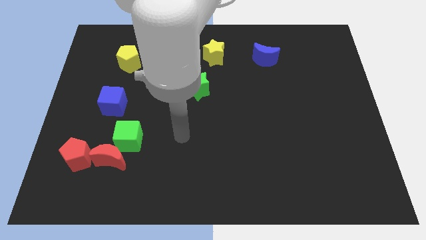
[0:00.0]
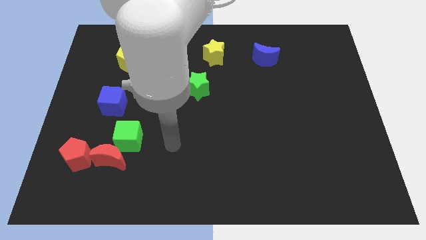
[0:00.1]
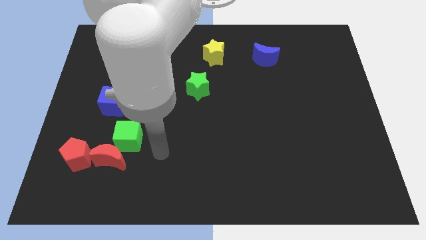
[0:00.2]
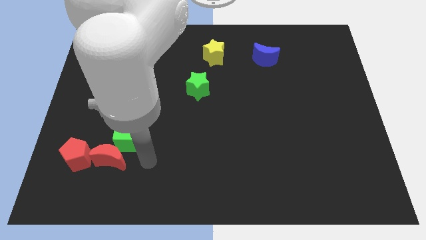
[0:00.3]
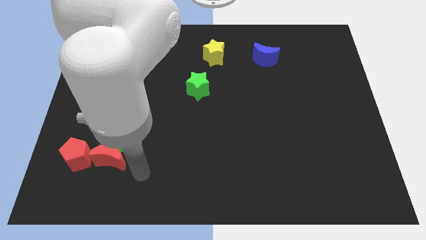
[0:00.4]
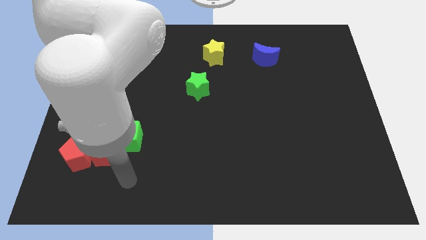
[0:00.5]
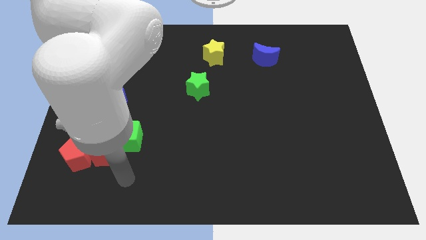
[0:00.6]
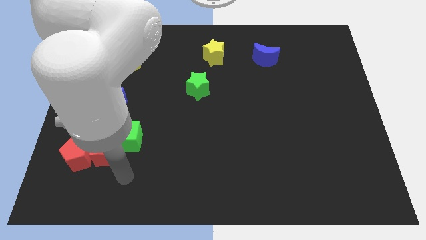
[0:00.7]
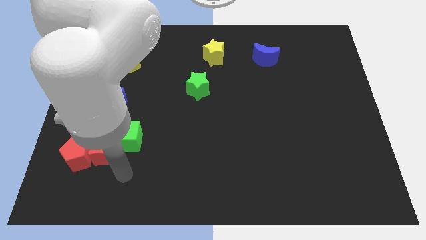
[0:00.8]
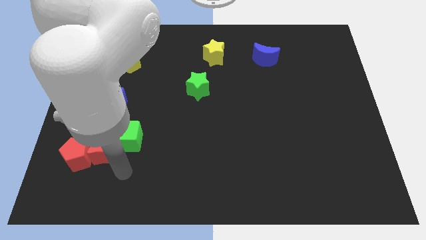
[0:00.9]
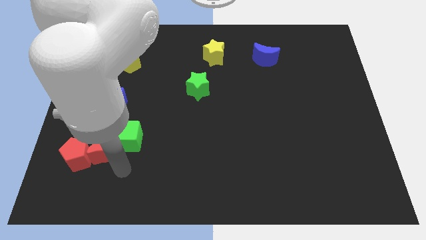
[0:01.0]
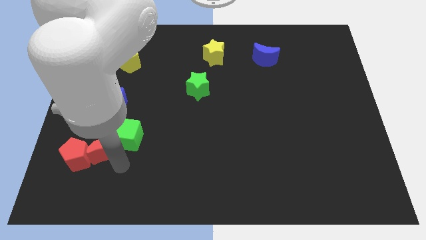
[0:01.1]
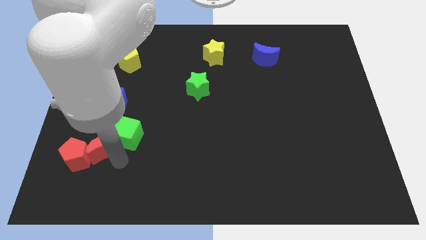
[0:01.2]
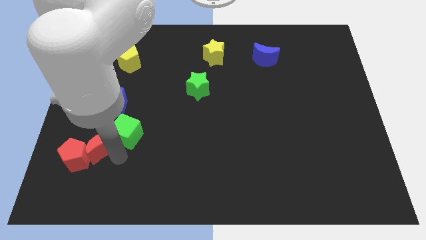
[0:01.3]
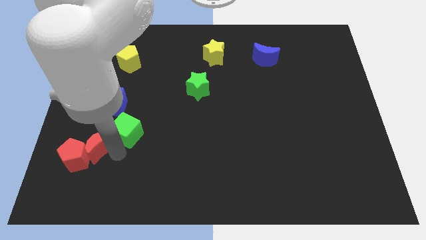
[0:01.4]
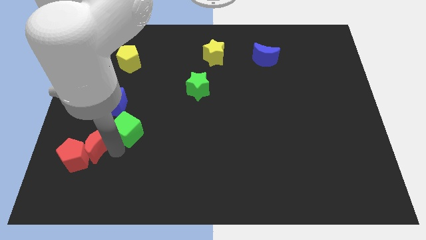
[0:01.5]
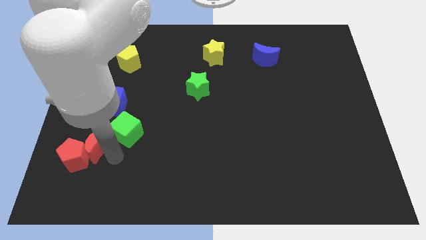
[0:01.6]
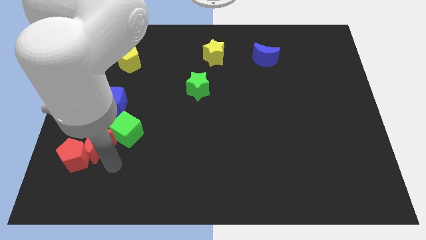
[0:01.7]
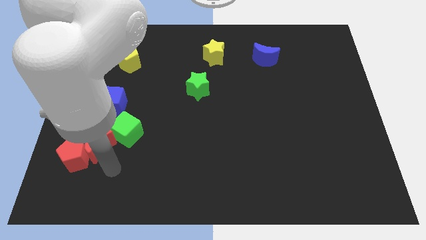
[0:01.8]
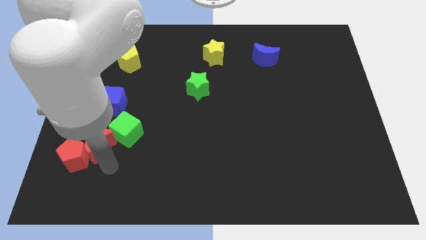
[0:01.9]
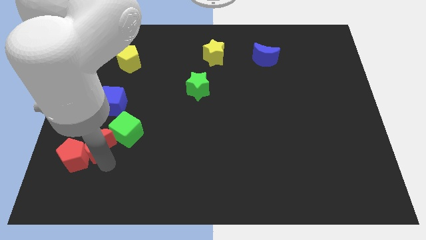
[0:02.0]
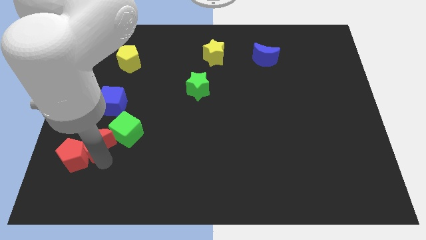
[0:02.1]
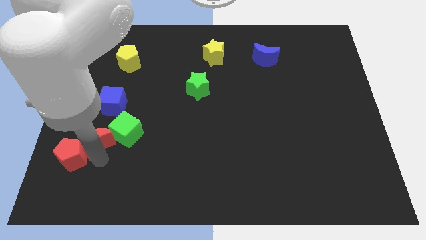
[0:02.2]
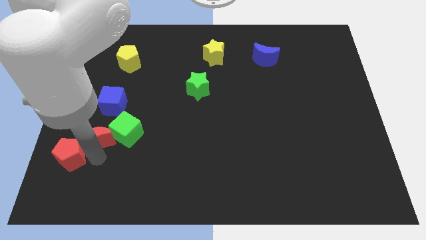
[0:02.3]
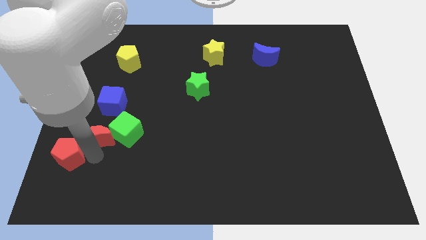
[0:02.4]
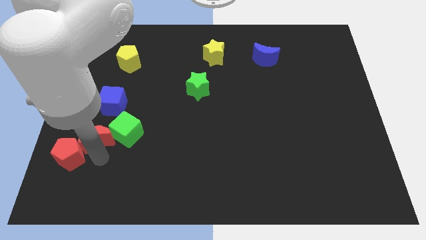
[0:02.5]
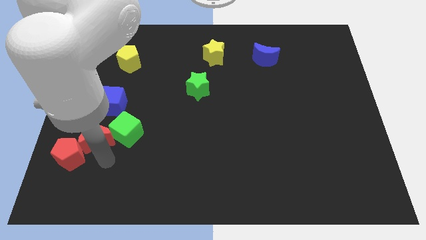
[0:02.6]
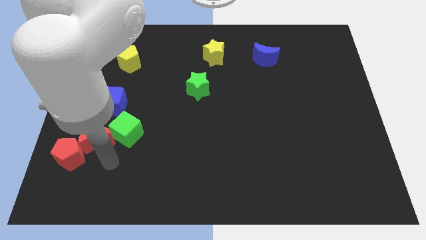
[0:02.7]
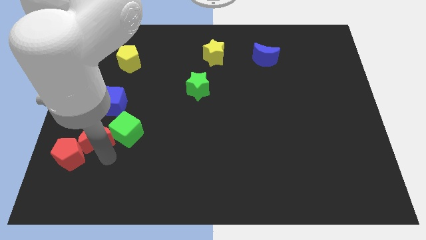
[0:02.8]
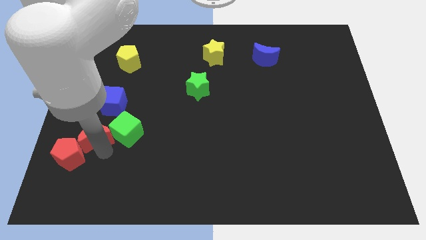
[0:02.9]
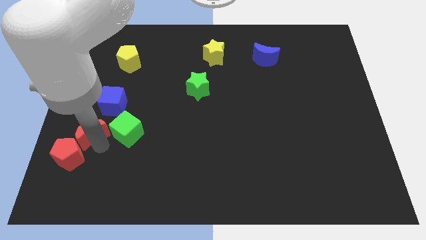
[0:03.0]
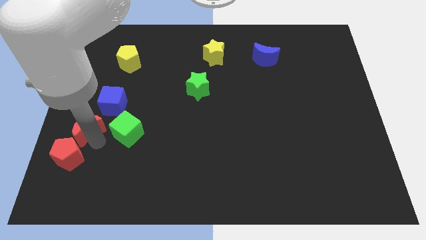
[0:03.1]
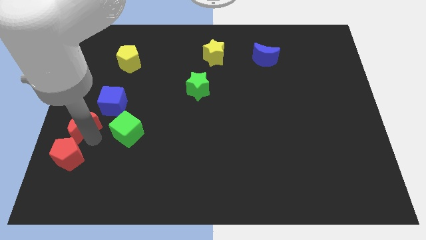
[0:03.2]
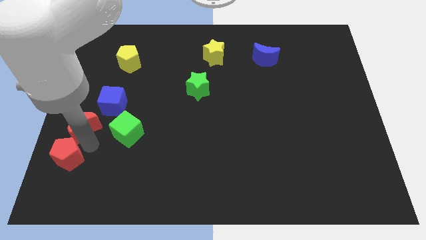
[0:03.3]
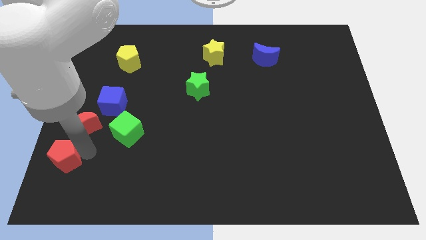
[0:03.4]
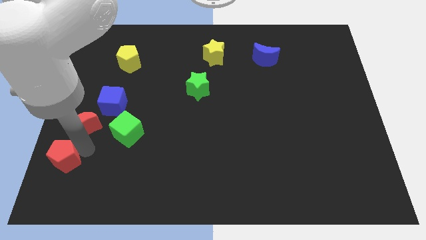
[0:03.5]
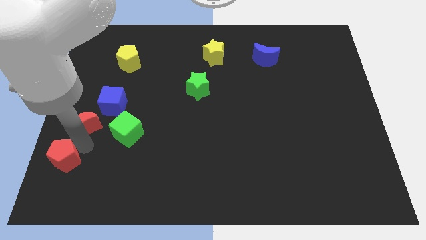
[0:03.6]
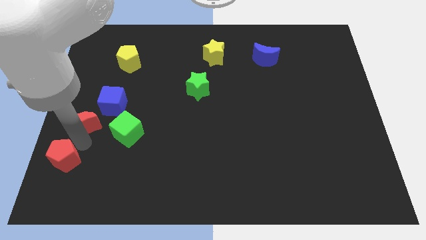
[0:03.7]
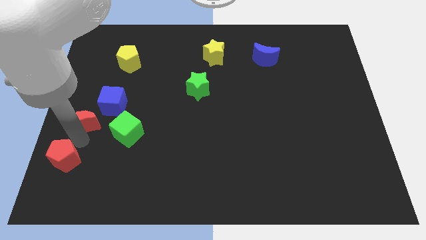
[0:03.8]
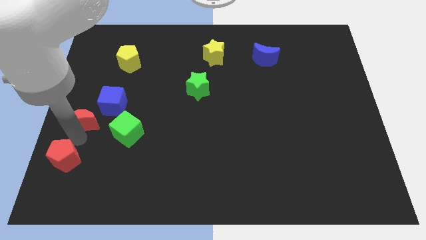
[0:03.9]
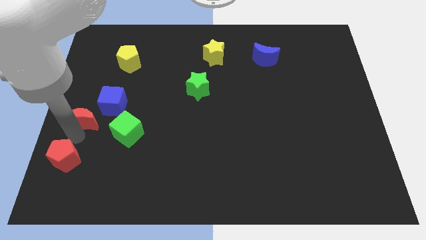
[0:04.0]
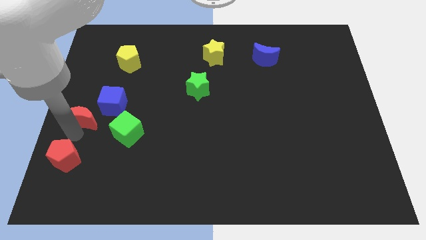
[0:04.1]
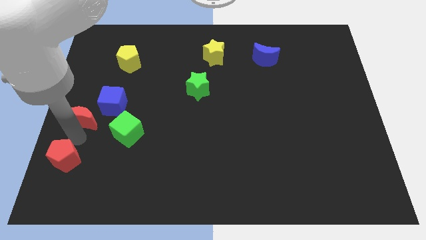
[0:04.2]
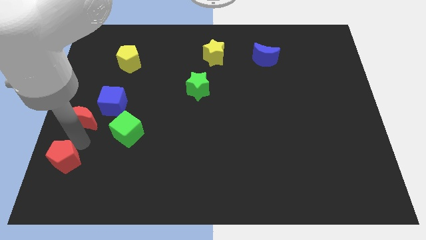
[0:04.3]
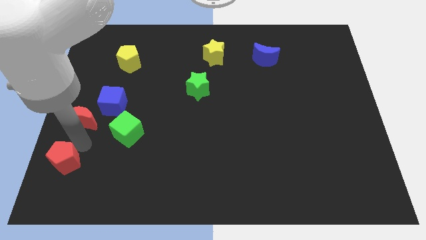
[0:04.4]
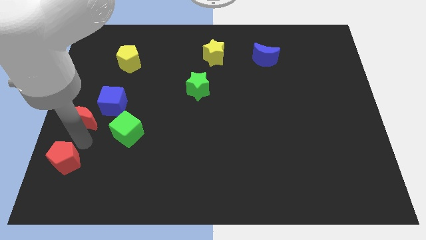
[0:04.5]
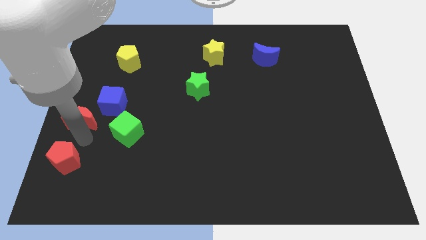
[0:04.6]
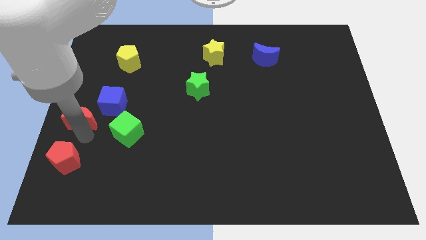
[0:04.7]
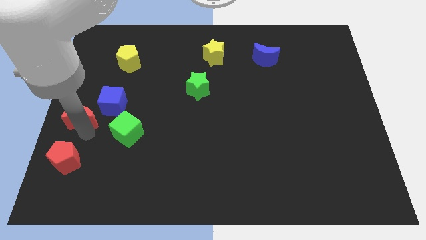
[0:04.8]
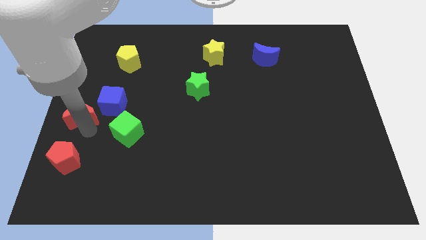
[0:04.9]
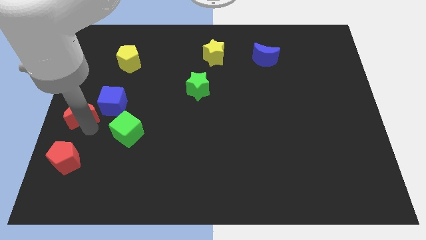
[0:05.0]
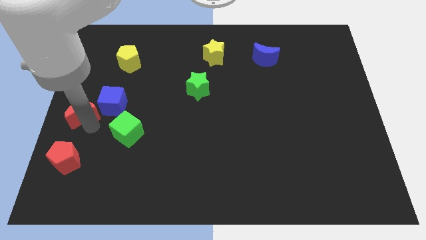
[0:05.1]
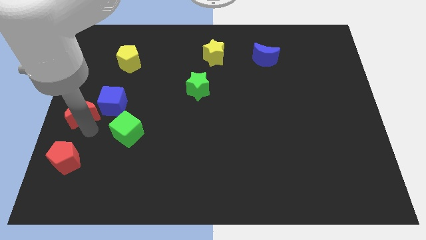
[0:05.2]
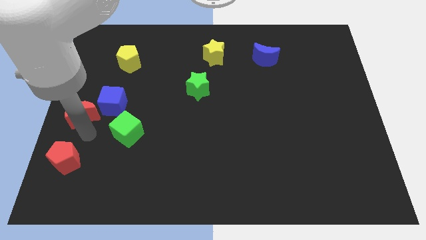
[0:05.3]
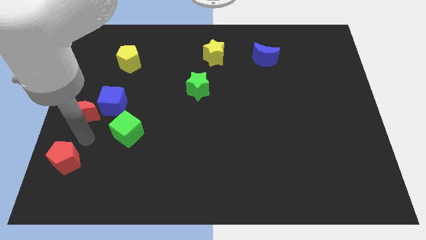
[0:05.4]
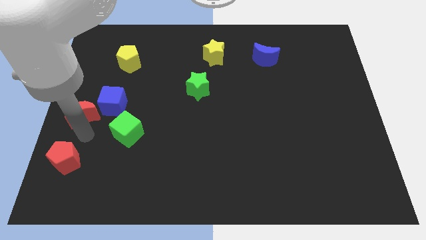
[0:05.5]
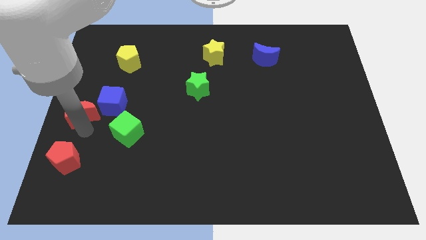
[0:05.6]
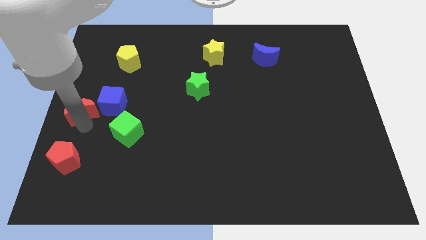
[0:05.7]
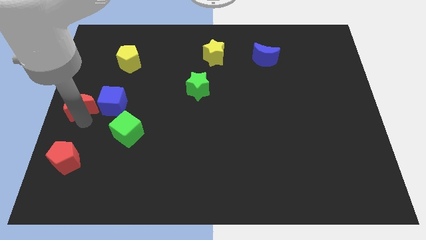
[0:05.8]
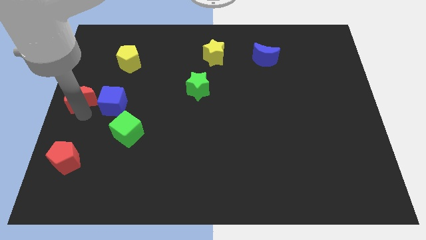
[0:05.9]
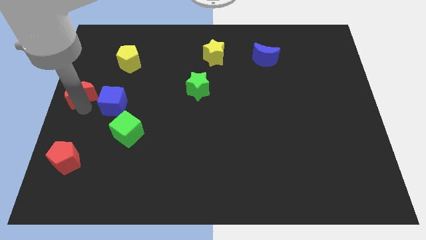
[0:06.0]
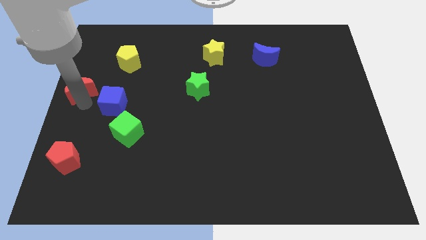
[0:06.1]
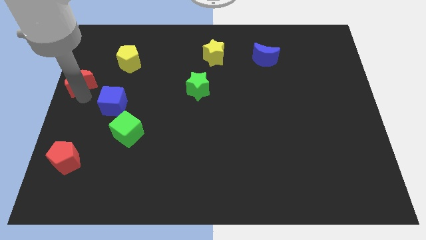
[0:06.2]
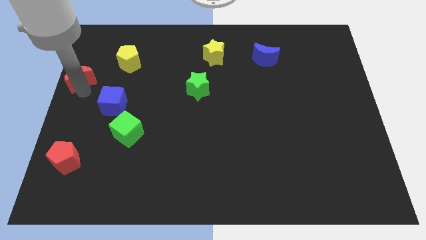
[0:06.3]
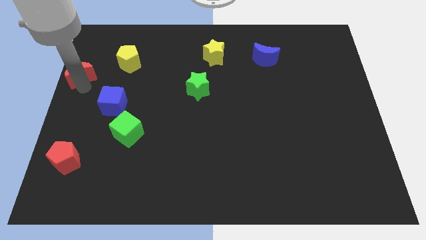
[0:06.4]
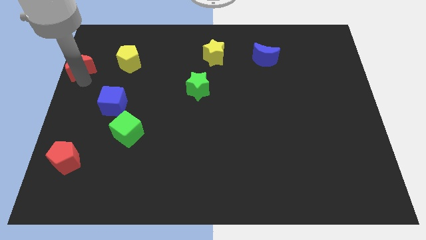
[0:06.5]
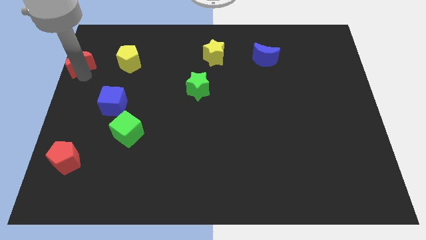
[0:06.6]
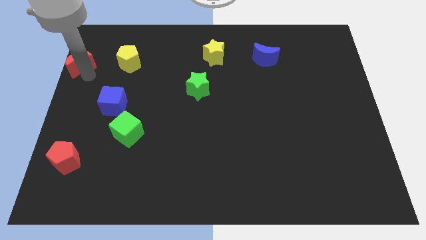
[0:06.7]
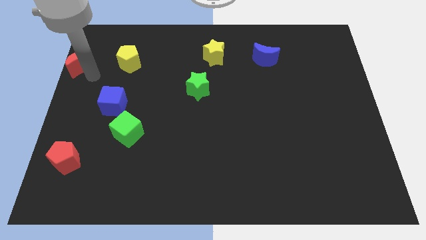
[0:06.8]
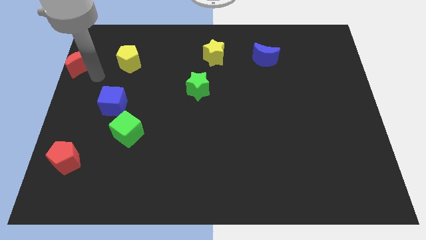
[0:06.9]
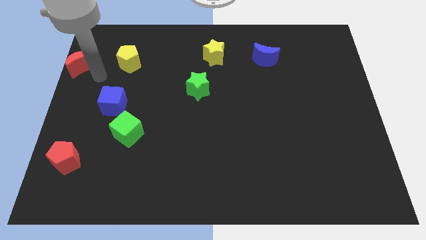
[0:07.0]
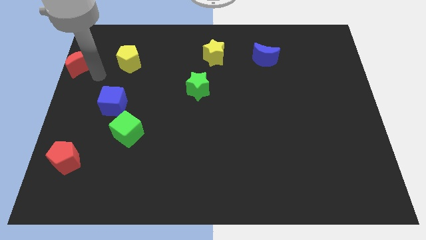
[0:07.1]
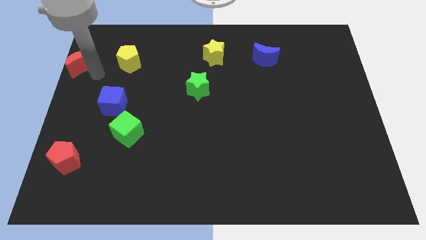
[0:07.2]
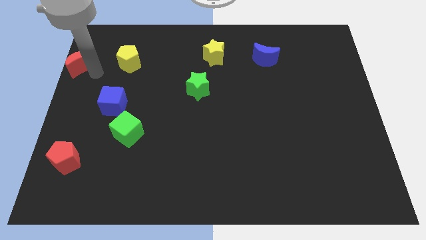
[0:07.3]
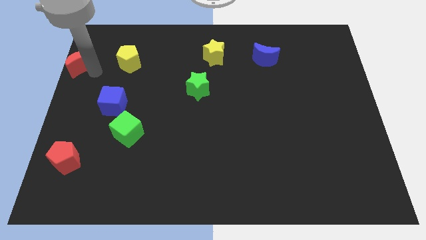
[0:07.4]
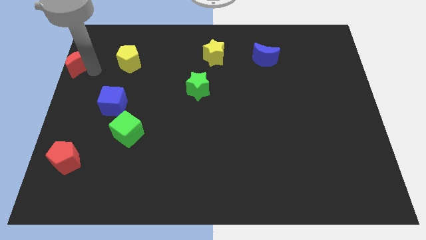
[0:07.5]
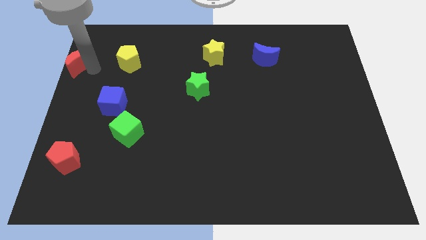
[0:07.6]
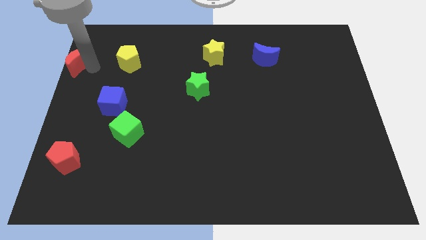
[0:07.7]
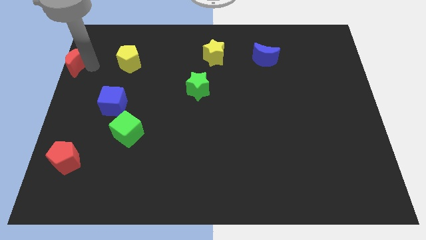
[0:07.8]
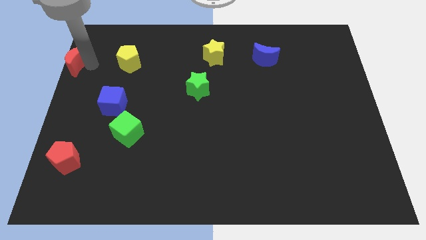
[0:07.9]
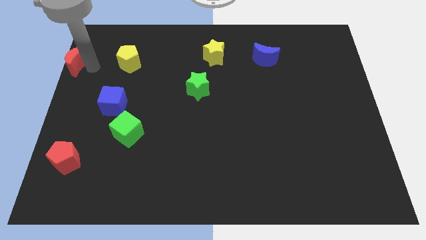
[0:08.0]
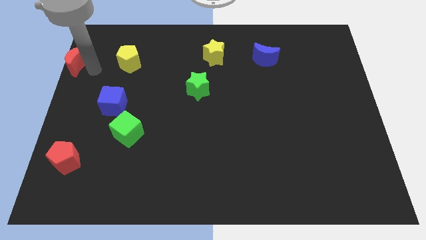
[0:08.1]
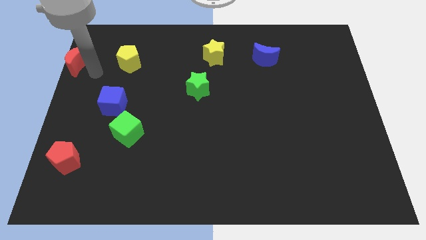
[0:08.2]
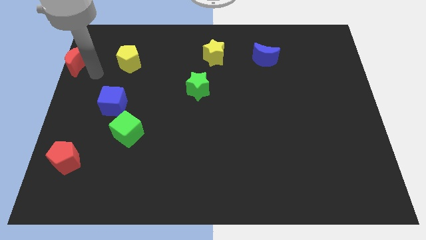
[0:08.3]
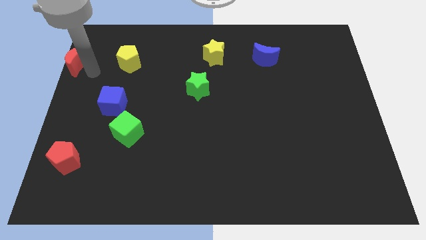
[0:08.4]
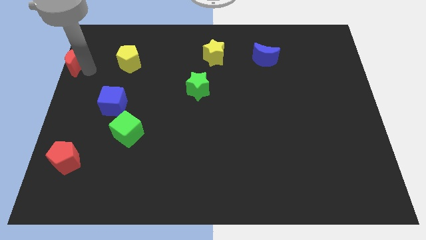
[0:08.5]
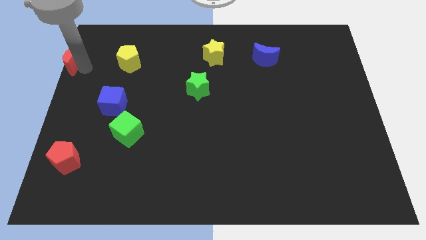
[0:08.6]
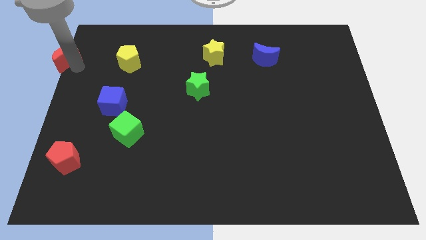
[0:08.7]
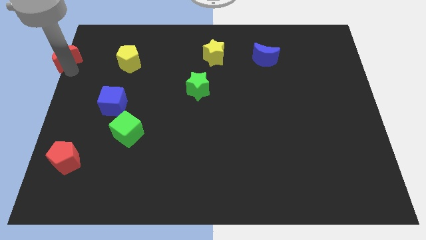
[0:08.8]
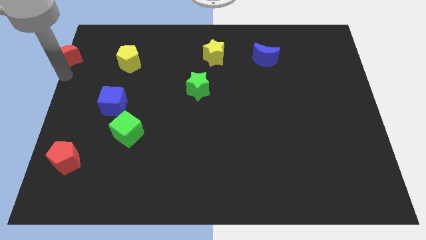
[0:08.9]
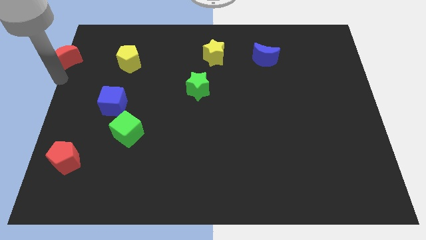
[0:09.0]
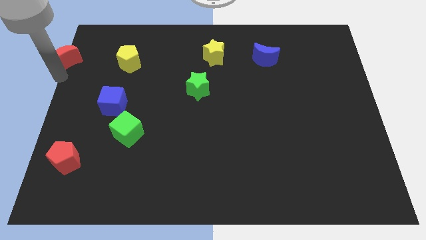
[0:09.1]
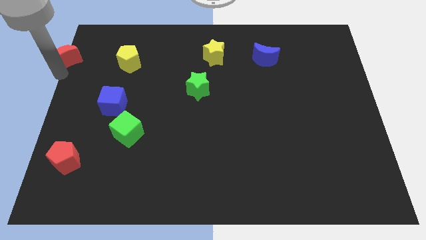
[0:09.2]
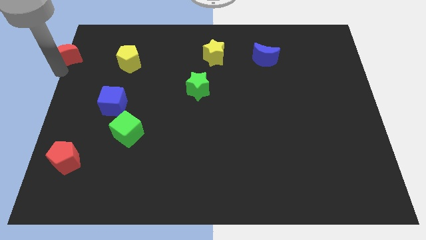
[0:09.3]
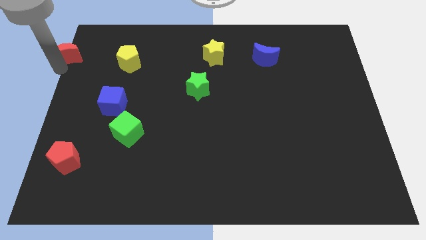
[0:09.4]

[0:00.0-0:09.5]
push the red moon to the top left corner
